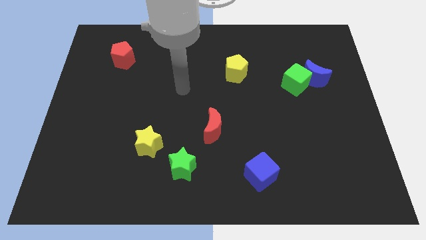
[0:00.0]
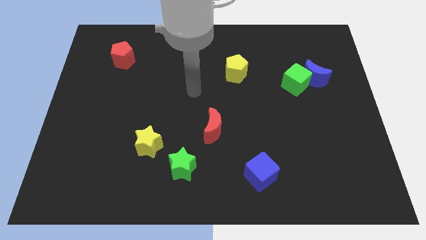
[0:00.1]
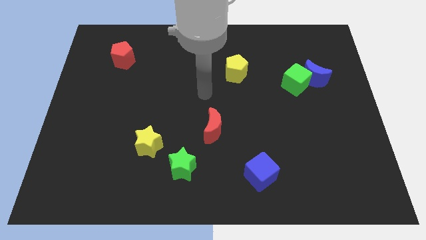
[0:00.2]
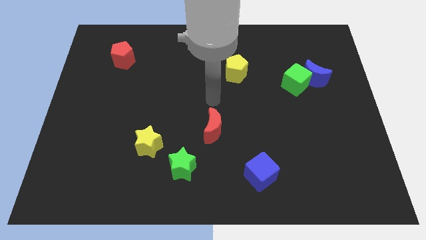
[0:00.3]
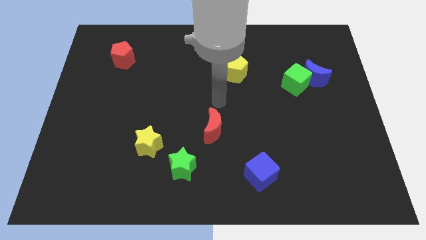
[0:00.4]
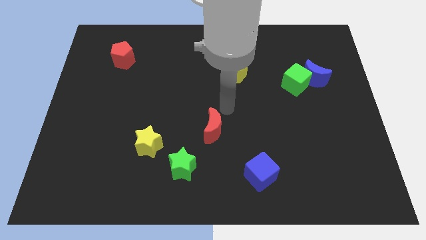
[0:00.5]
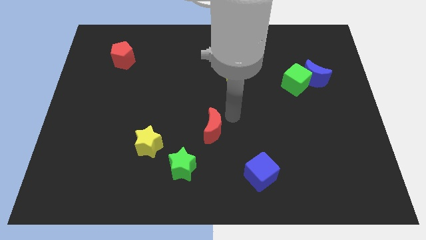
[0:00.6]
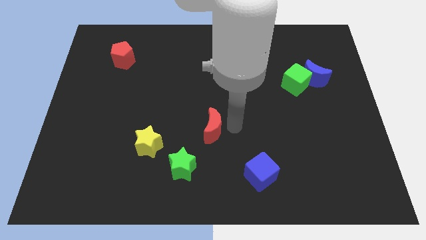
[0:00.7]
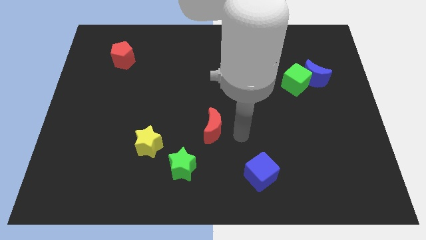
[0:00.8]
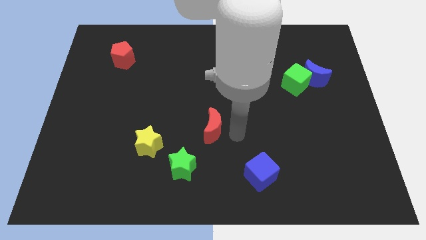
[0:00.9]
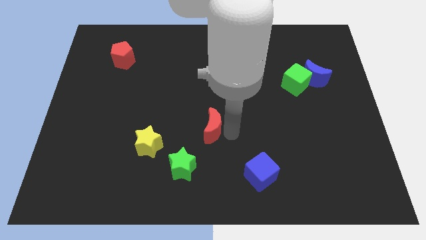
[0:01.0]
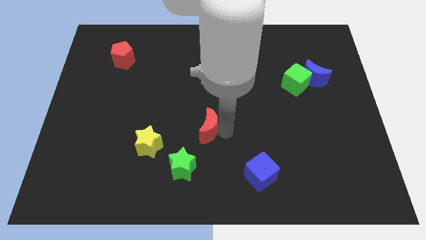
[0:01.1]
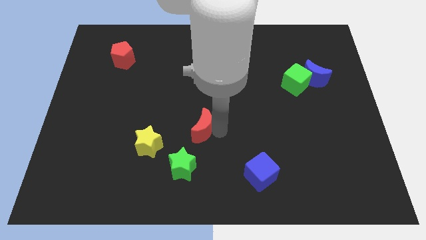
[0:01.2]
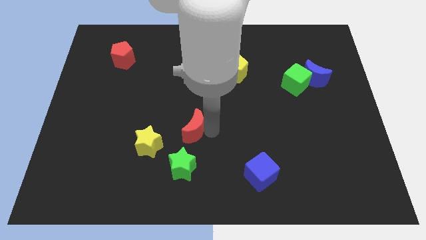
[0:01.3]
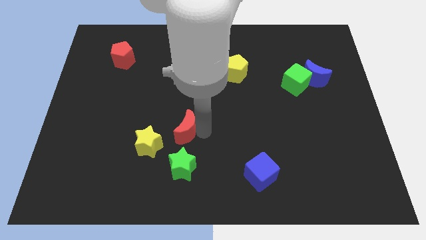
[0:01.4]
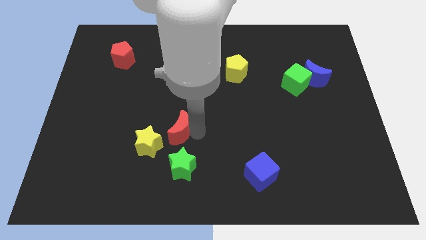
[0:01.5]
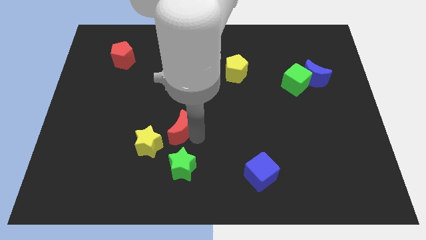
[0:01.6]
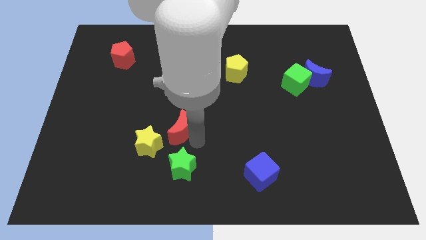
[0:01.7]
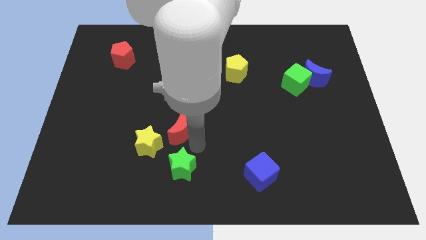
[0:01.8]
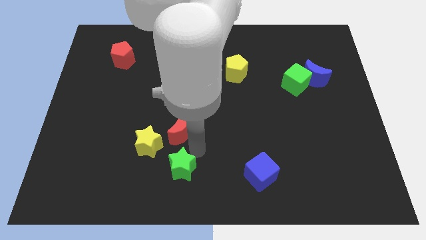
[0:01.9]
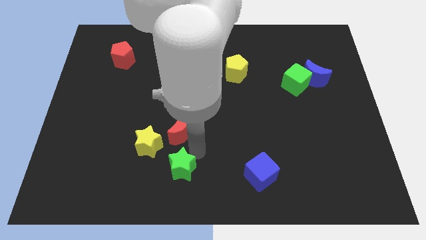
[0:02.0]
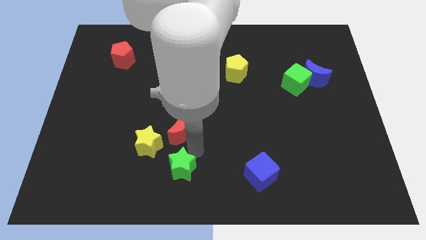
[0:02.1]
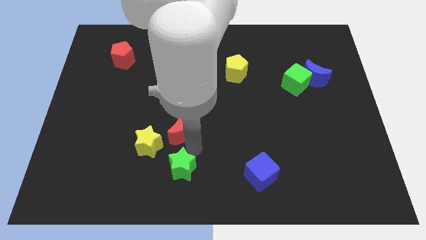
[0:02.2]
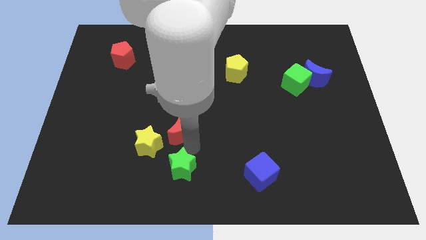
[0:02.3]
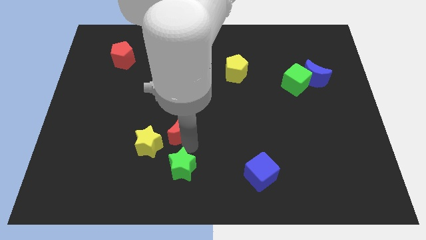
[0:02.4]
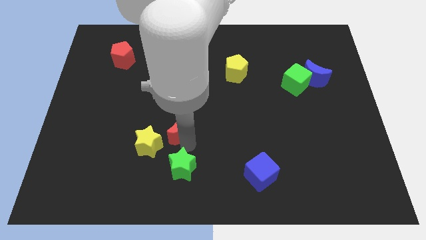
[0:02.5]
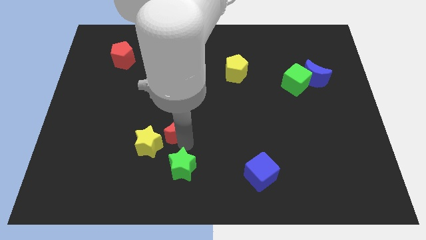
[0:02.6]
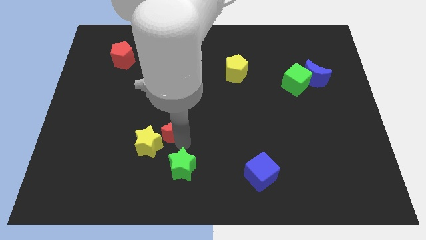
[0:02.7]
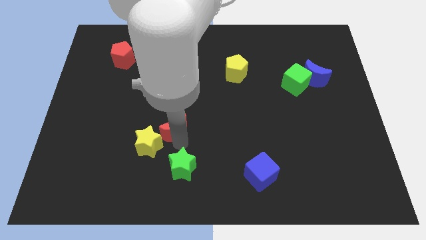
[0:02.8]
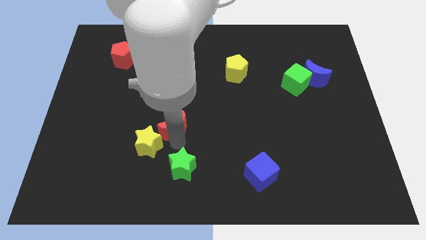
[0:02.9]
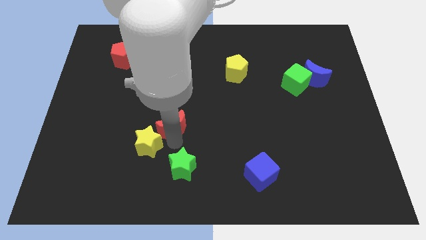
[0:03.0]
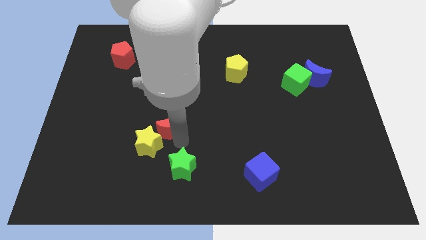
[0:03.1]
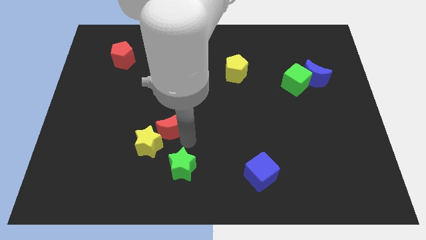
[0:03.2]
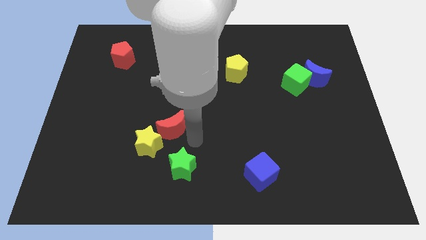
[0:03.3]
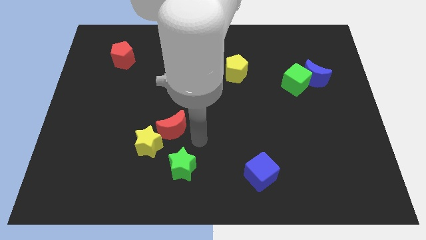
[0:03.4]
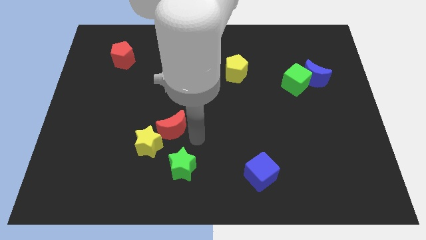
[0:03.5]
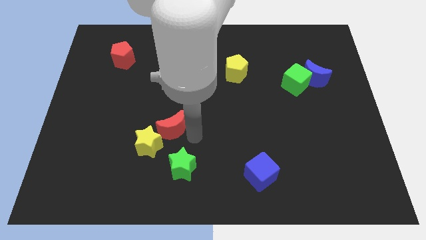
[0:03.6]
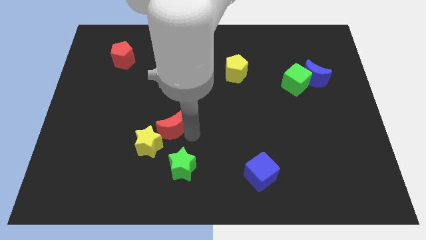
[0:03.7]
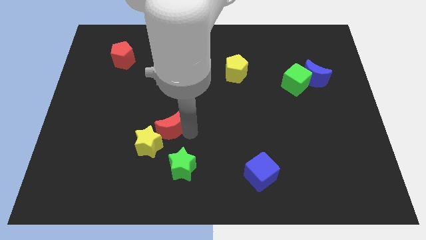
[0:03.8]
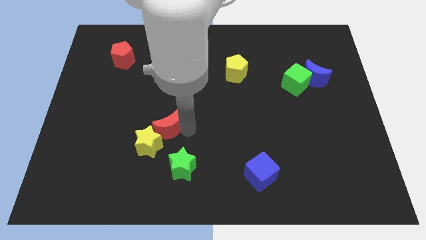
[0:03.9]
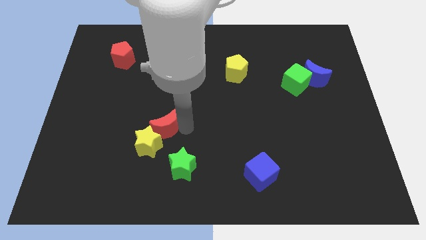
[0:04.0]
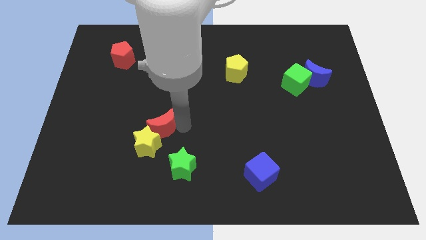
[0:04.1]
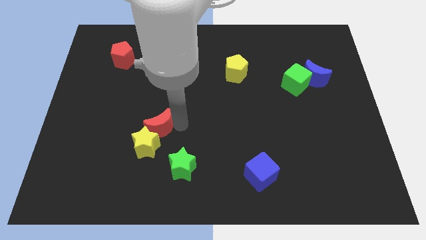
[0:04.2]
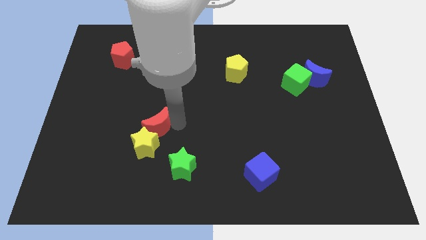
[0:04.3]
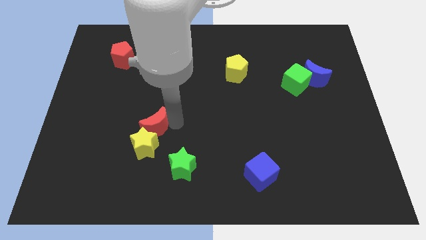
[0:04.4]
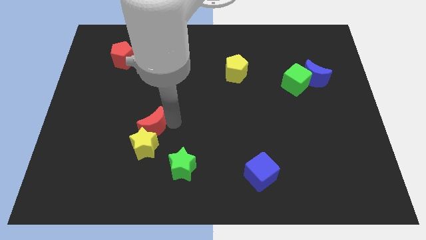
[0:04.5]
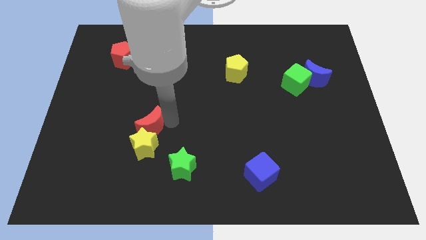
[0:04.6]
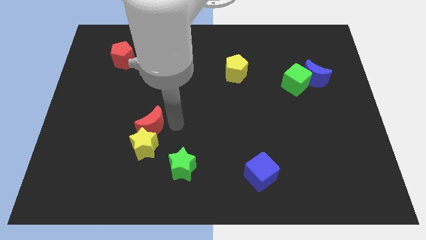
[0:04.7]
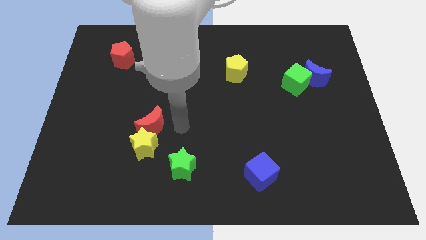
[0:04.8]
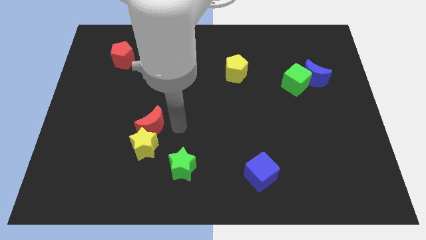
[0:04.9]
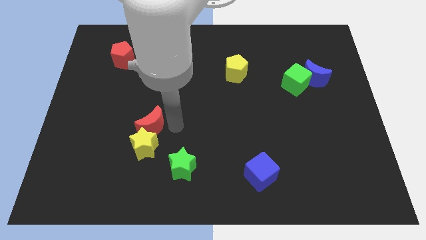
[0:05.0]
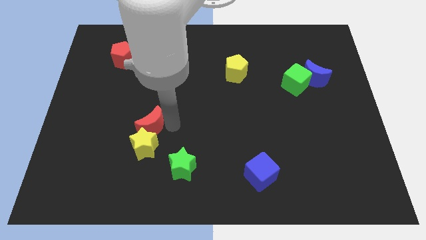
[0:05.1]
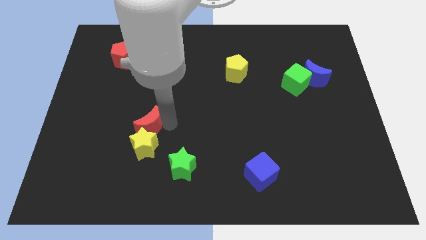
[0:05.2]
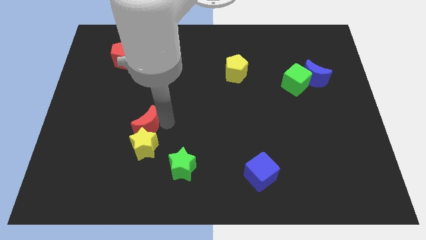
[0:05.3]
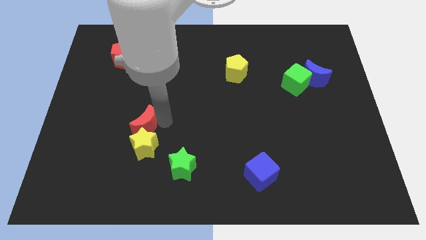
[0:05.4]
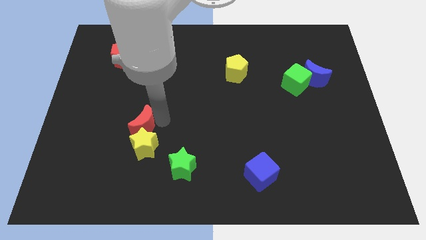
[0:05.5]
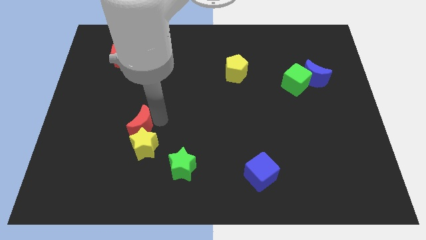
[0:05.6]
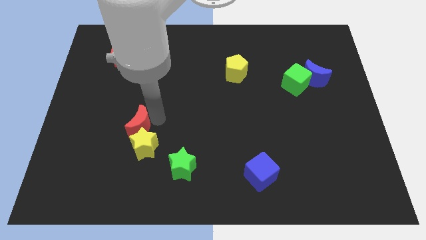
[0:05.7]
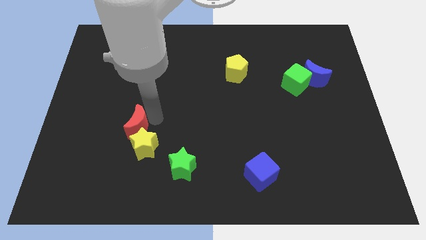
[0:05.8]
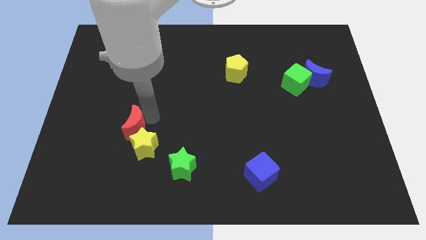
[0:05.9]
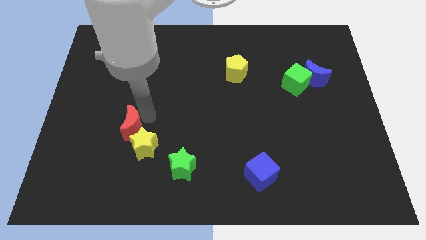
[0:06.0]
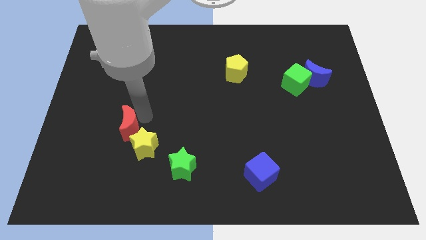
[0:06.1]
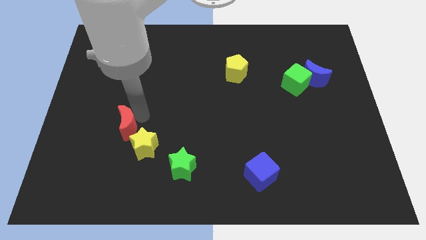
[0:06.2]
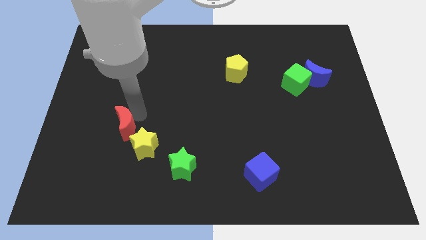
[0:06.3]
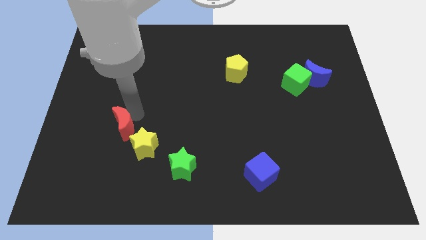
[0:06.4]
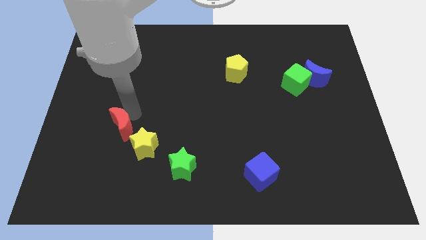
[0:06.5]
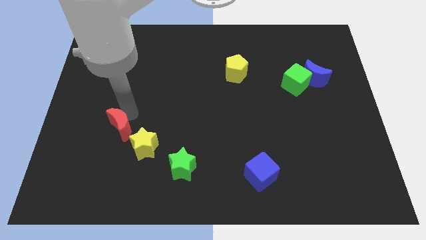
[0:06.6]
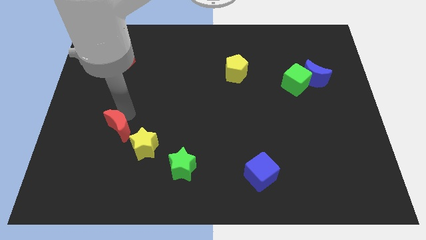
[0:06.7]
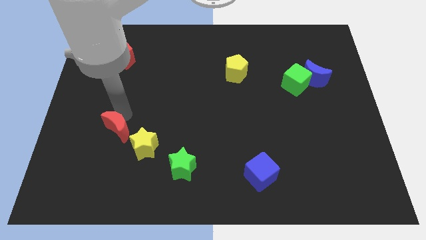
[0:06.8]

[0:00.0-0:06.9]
put the red moon to the left of the yellow star

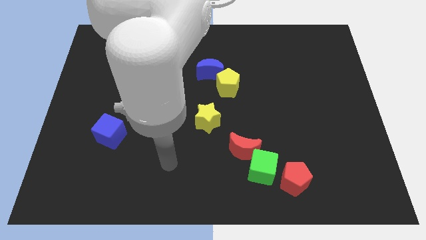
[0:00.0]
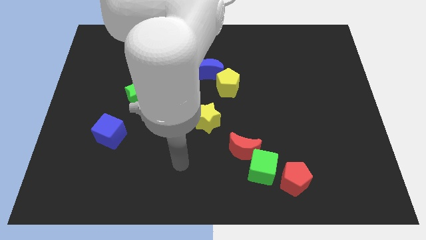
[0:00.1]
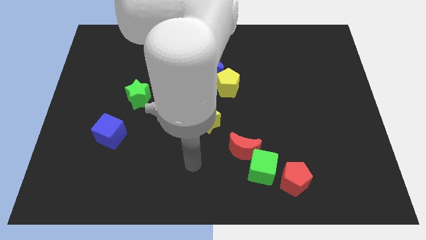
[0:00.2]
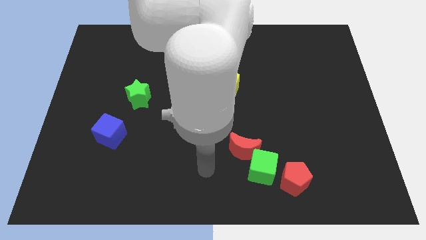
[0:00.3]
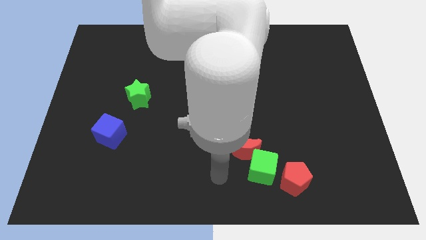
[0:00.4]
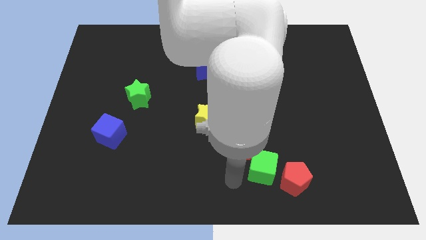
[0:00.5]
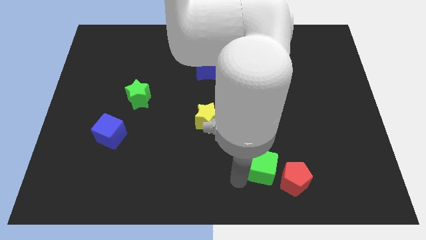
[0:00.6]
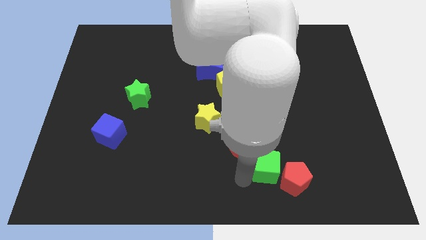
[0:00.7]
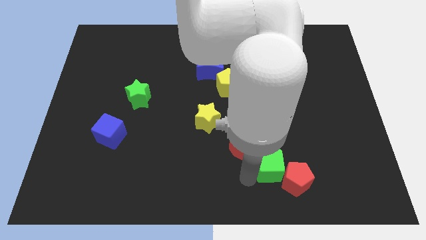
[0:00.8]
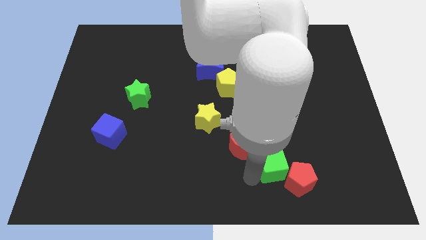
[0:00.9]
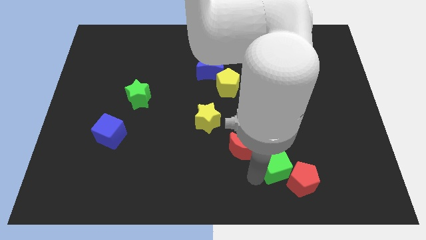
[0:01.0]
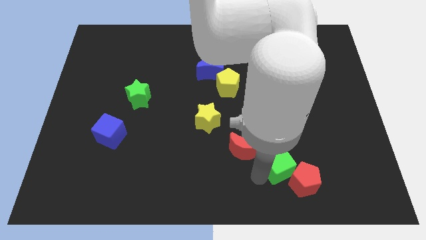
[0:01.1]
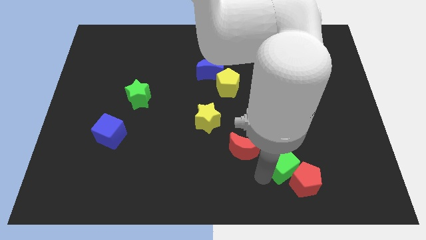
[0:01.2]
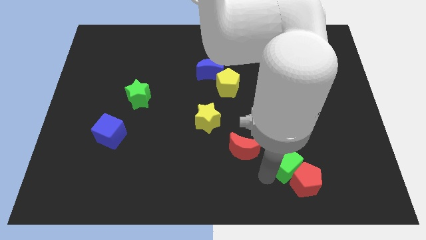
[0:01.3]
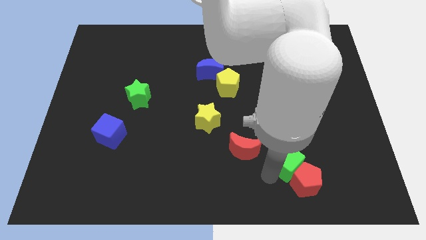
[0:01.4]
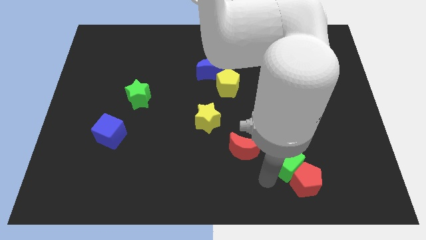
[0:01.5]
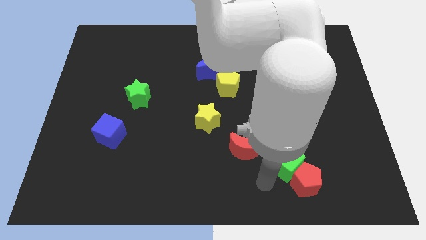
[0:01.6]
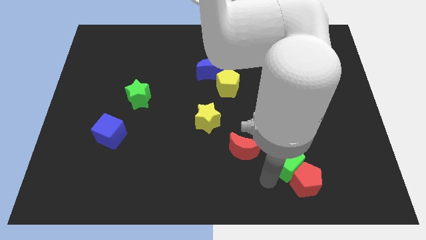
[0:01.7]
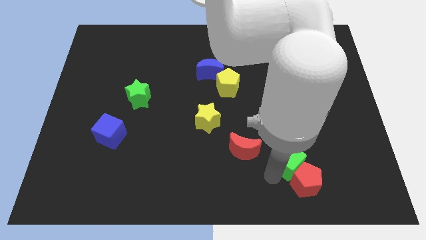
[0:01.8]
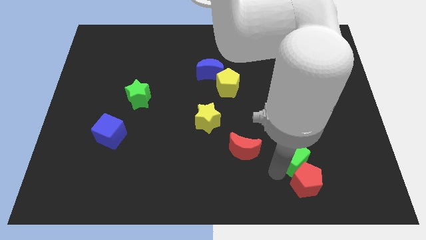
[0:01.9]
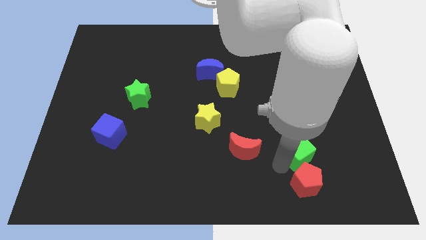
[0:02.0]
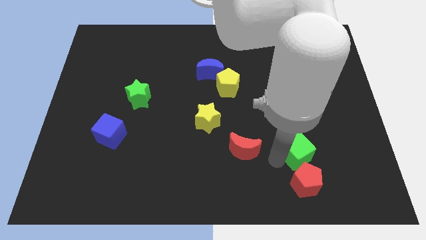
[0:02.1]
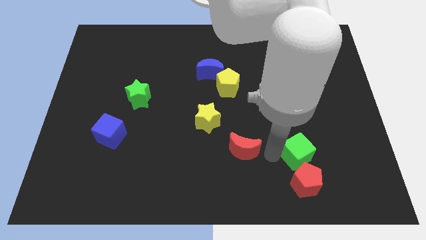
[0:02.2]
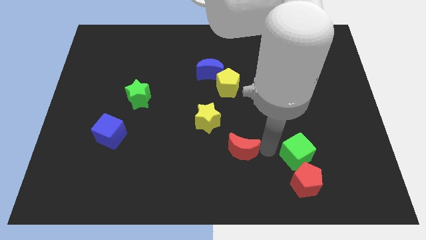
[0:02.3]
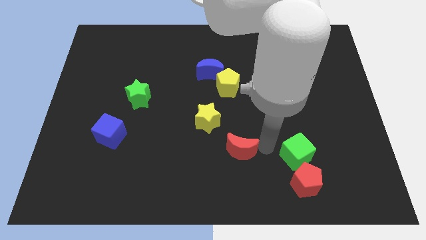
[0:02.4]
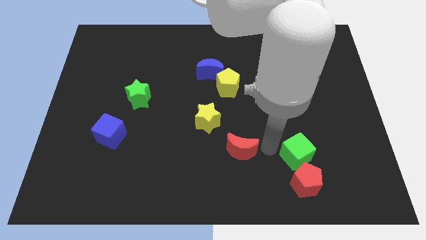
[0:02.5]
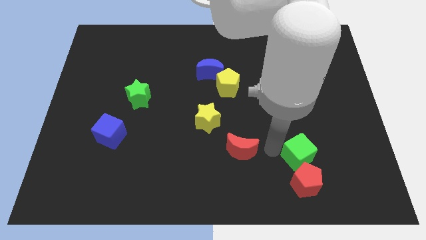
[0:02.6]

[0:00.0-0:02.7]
put the green cube to the top right of the red pentagon
